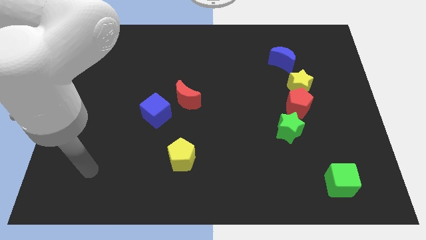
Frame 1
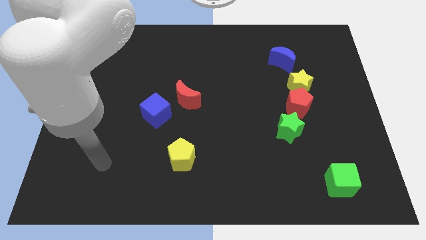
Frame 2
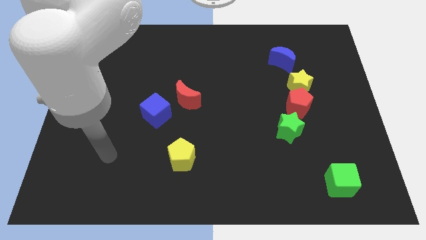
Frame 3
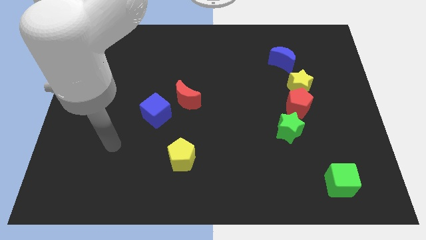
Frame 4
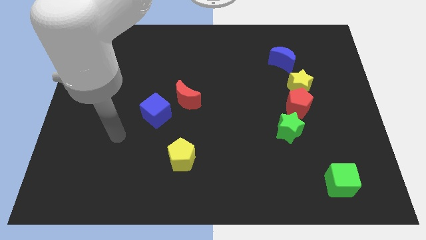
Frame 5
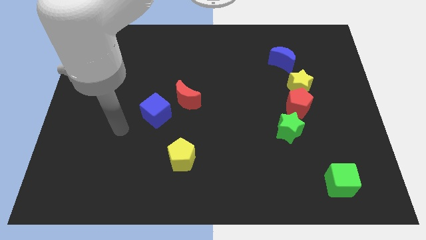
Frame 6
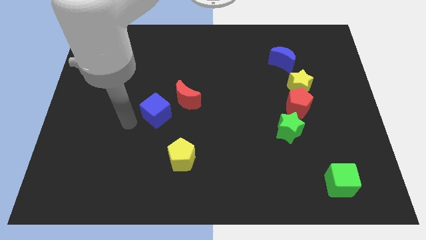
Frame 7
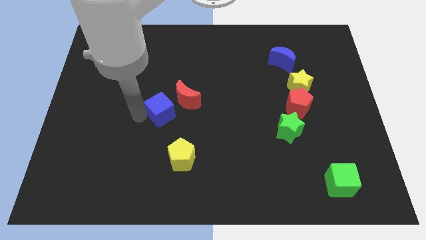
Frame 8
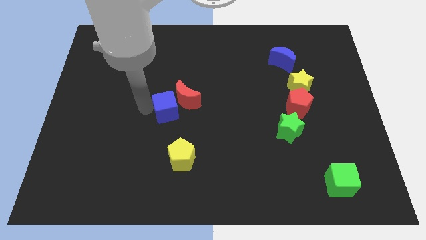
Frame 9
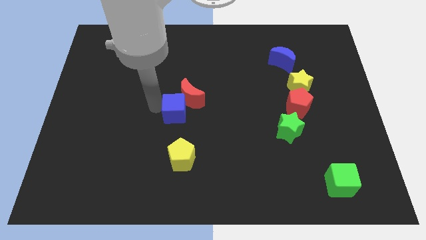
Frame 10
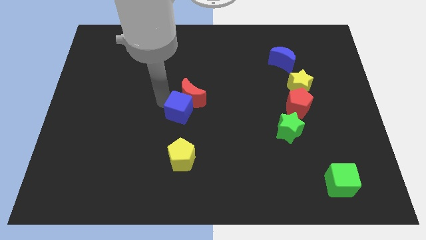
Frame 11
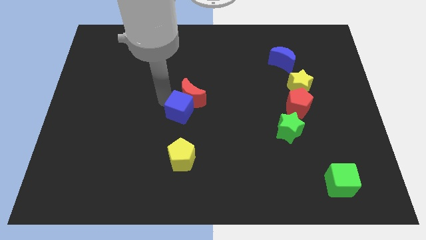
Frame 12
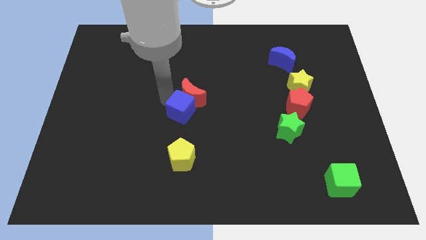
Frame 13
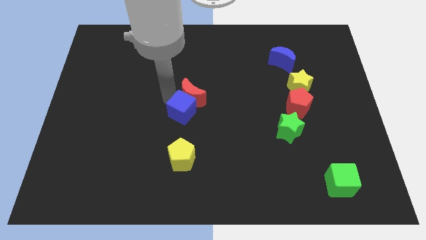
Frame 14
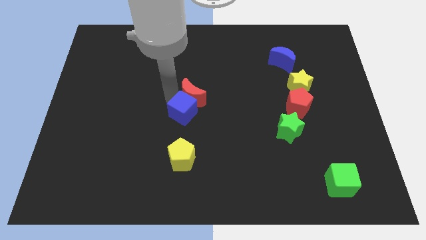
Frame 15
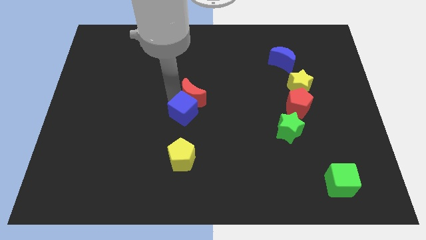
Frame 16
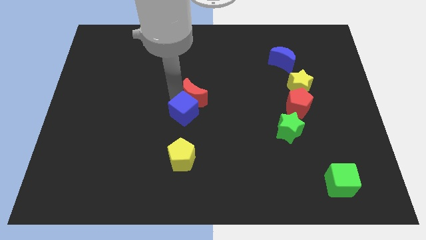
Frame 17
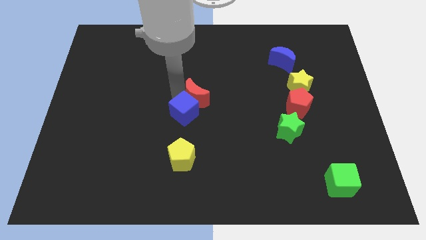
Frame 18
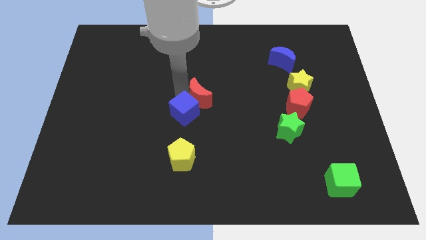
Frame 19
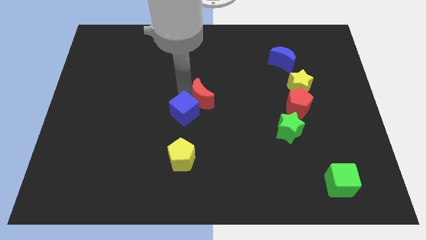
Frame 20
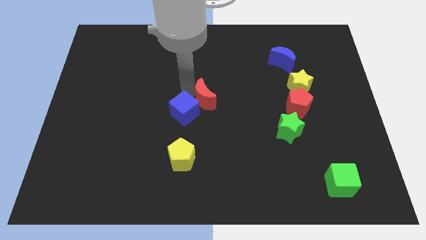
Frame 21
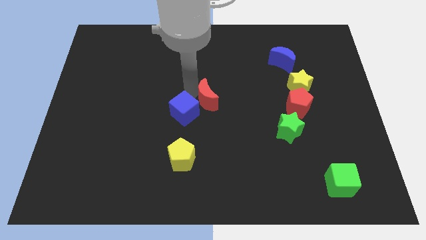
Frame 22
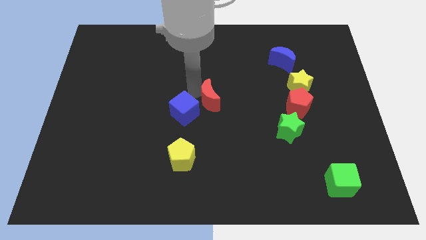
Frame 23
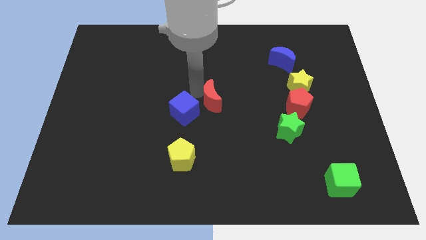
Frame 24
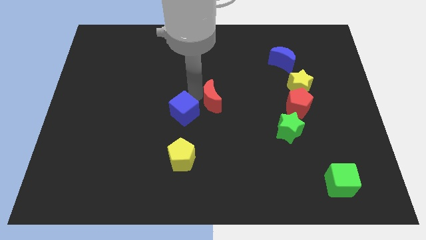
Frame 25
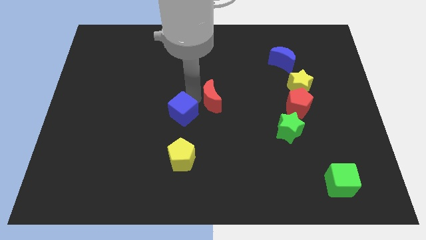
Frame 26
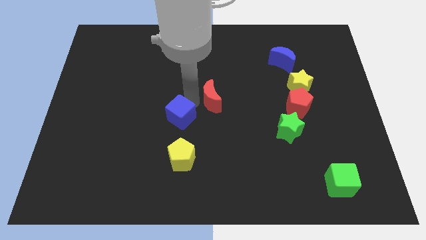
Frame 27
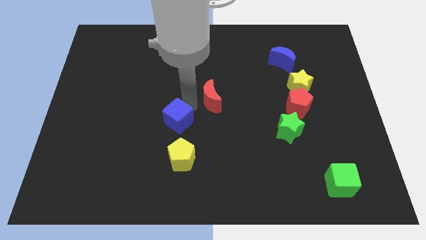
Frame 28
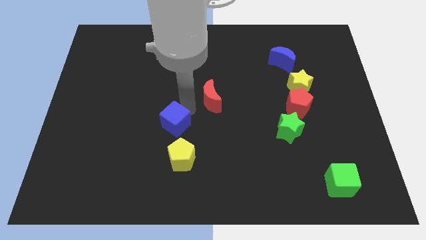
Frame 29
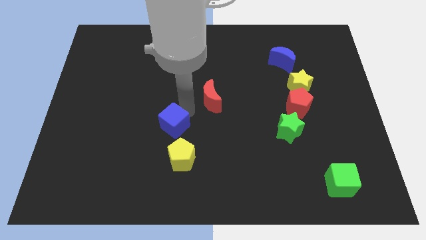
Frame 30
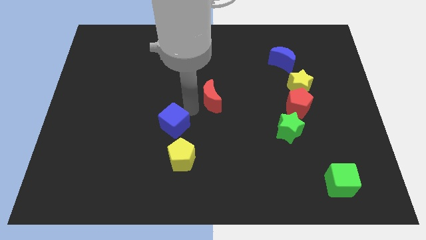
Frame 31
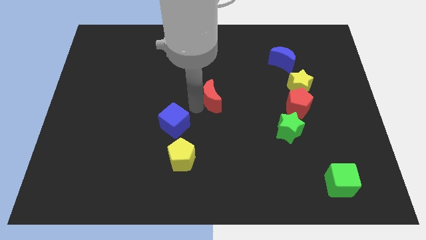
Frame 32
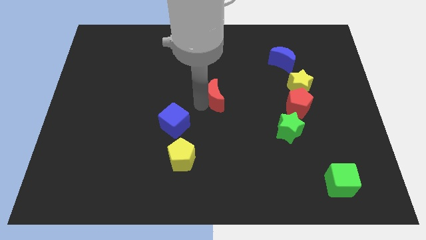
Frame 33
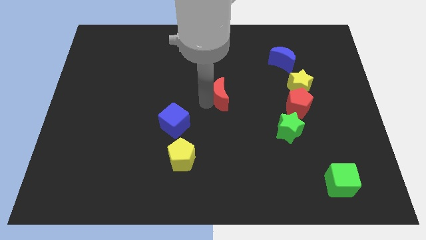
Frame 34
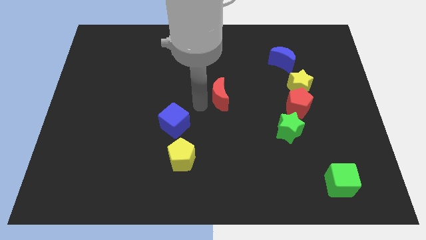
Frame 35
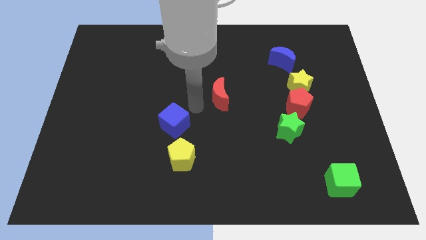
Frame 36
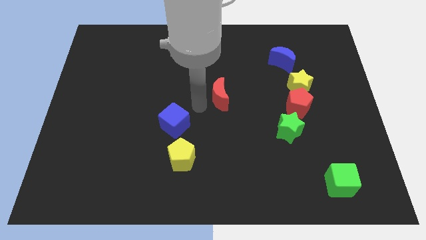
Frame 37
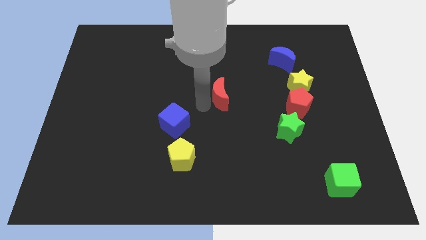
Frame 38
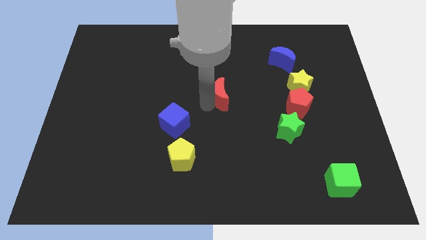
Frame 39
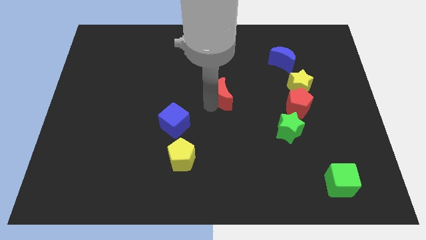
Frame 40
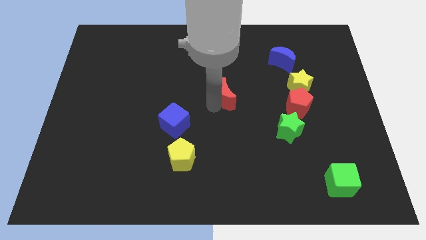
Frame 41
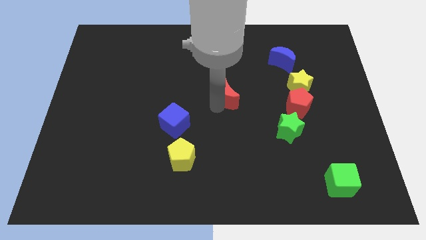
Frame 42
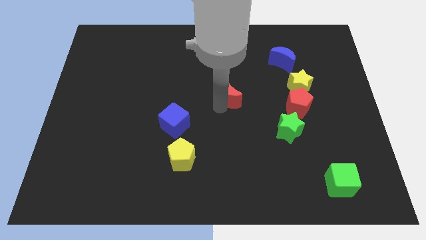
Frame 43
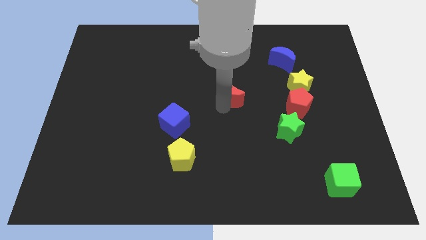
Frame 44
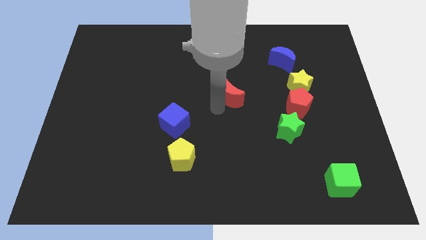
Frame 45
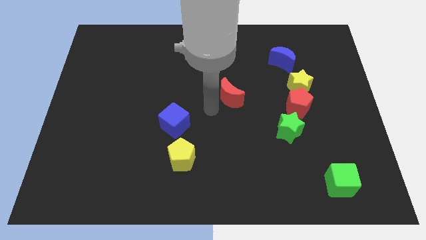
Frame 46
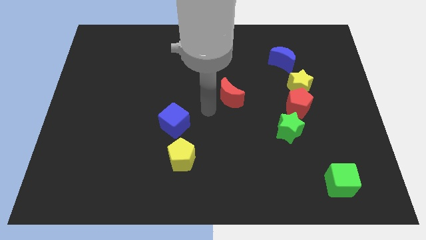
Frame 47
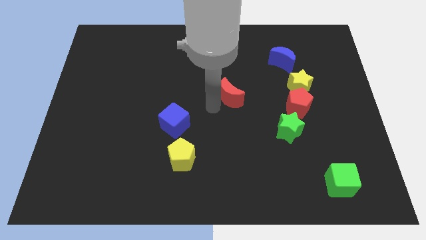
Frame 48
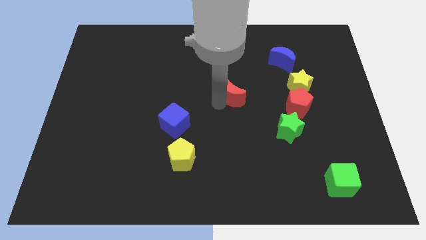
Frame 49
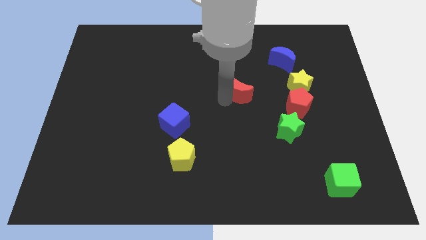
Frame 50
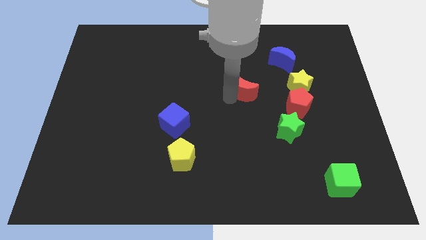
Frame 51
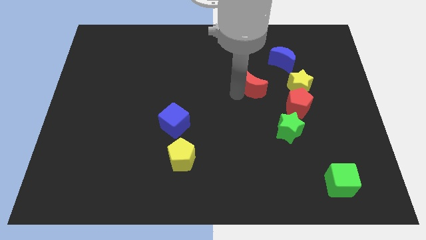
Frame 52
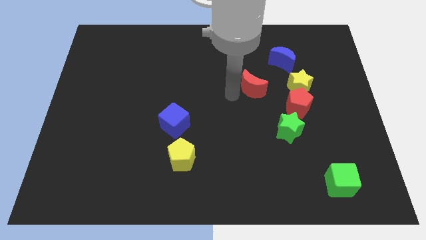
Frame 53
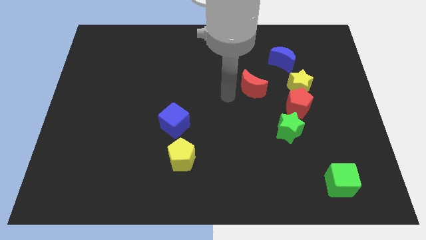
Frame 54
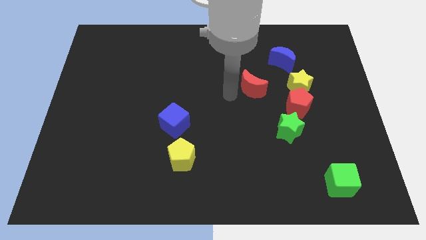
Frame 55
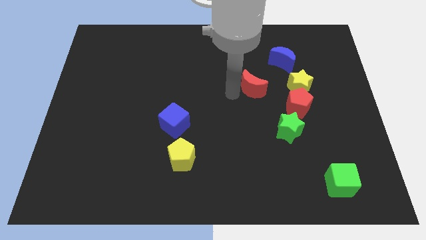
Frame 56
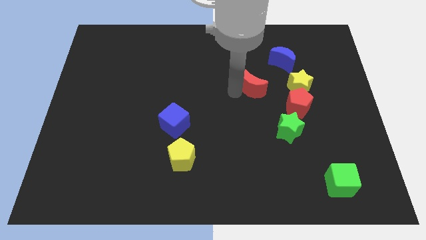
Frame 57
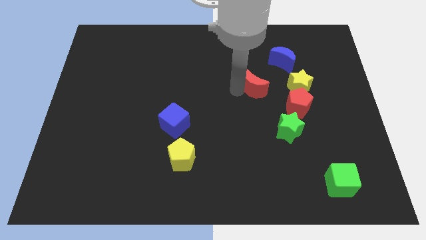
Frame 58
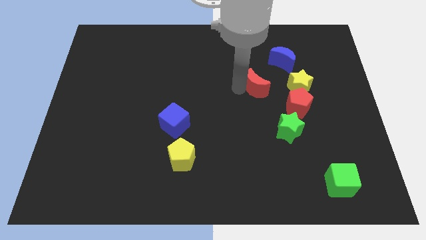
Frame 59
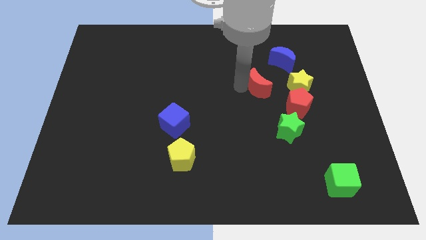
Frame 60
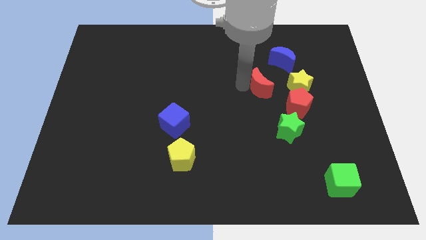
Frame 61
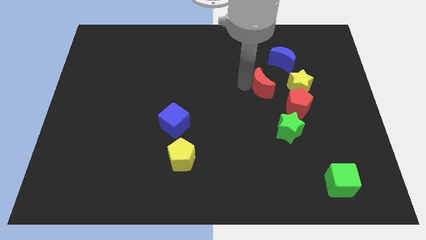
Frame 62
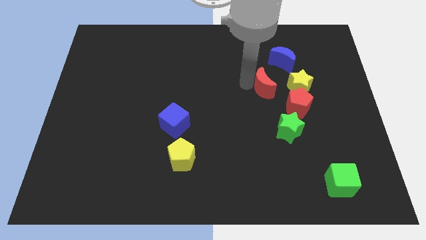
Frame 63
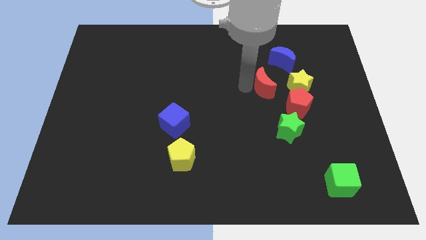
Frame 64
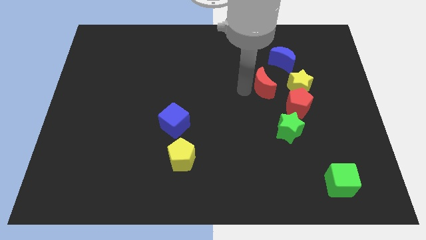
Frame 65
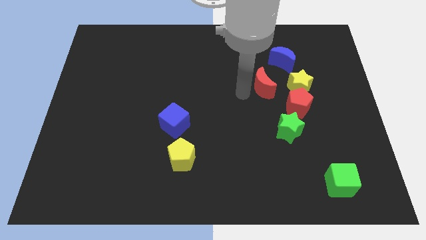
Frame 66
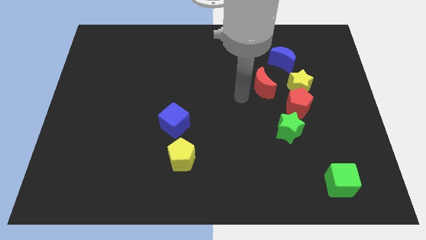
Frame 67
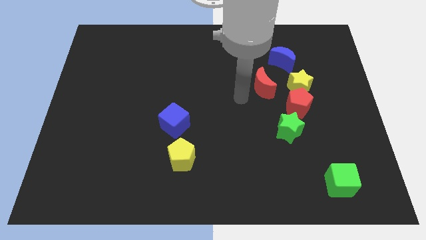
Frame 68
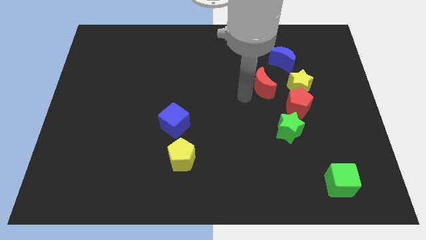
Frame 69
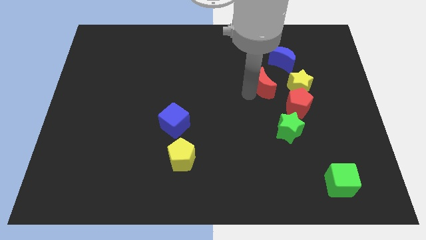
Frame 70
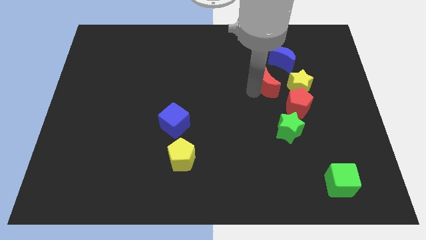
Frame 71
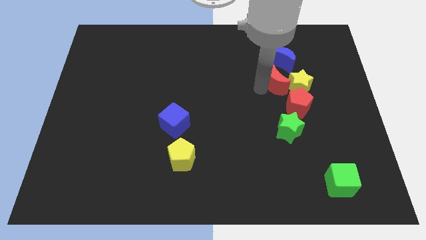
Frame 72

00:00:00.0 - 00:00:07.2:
put the red moon to the top side of the red pentagon
